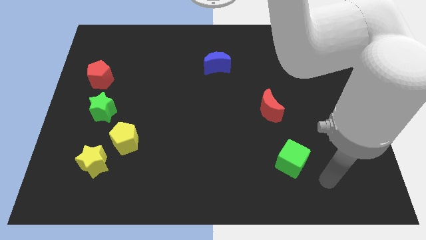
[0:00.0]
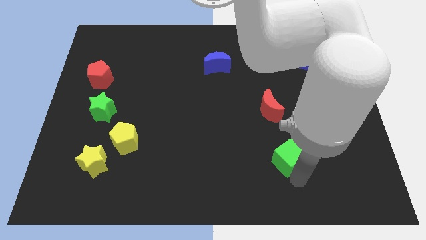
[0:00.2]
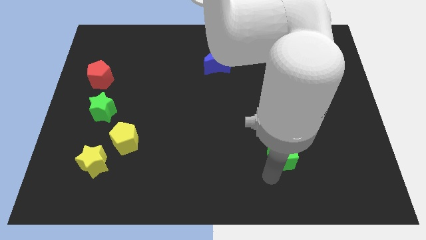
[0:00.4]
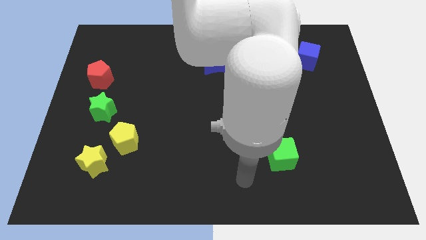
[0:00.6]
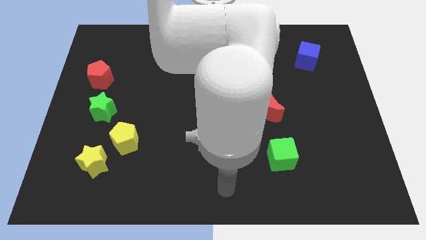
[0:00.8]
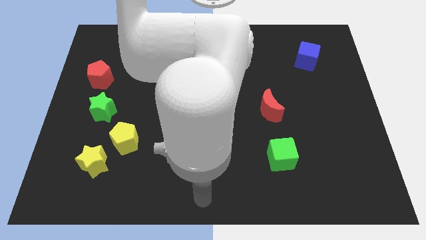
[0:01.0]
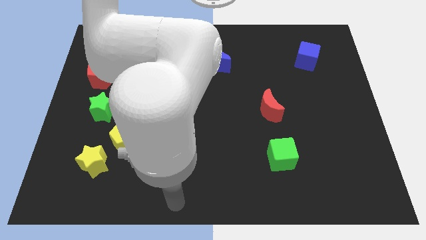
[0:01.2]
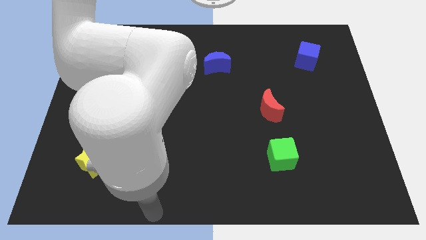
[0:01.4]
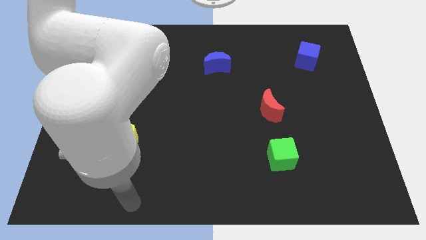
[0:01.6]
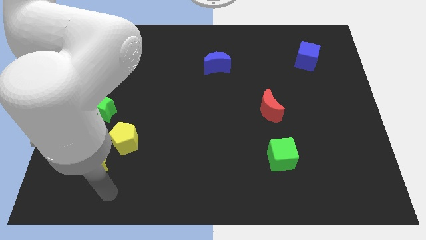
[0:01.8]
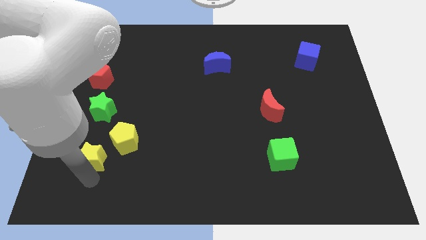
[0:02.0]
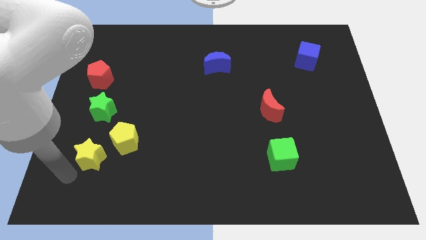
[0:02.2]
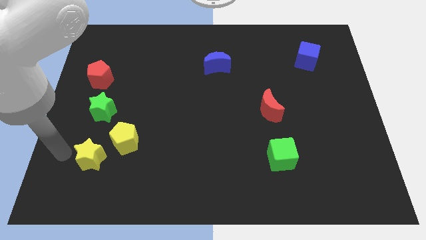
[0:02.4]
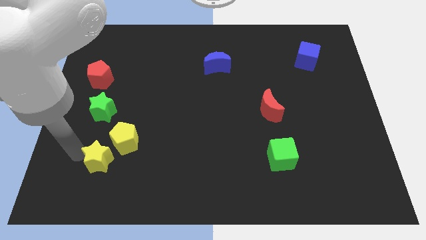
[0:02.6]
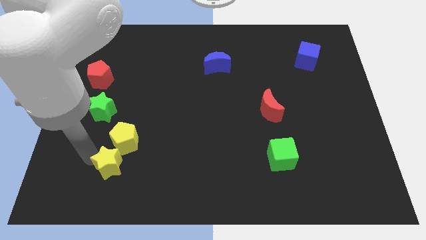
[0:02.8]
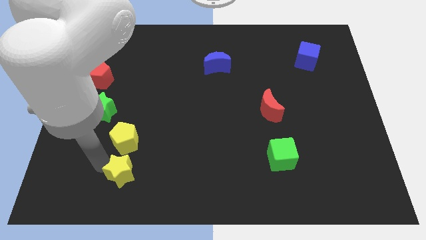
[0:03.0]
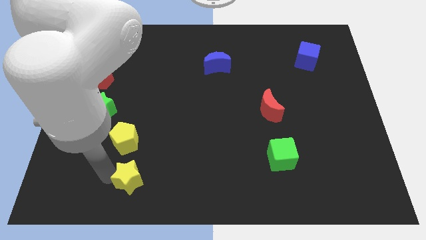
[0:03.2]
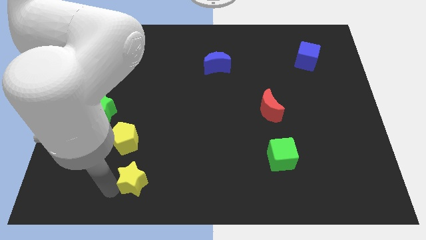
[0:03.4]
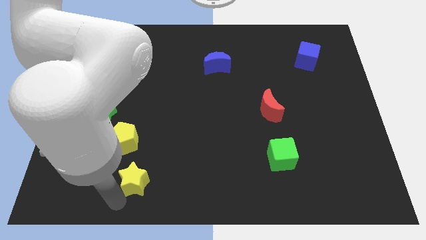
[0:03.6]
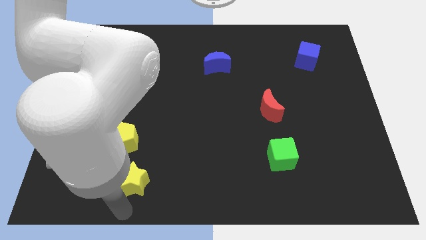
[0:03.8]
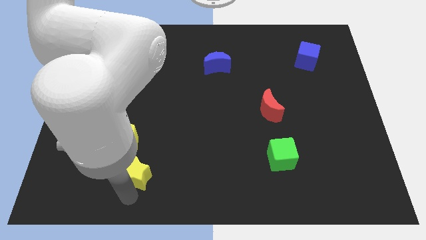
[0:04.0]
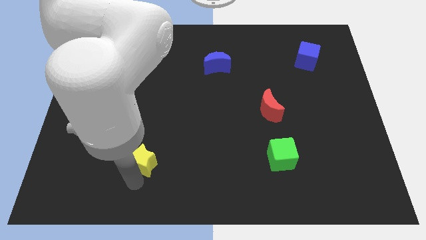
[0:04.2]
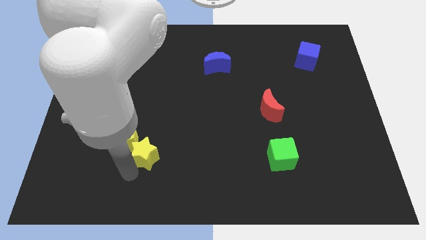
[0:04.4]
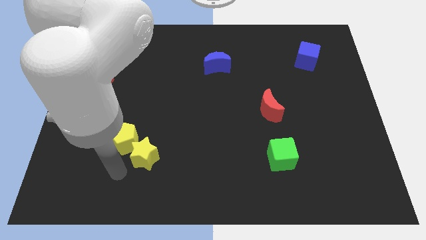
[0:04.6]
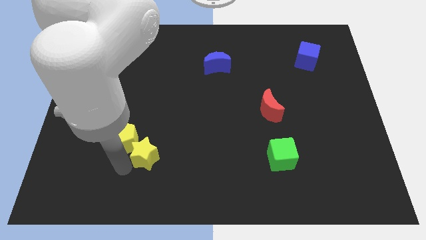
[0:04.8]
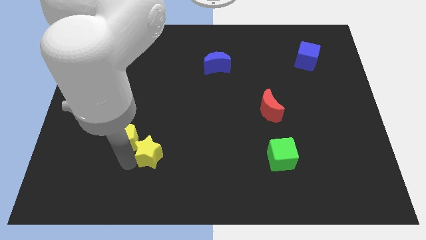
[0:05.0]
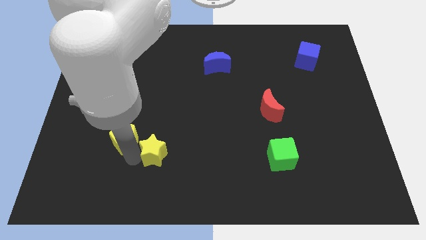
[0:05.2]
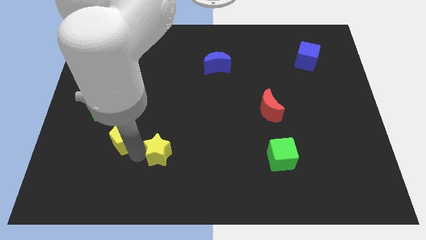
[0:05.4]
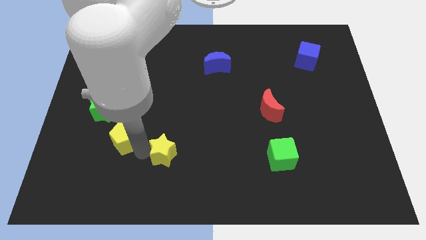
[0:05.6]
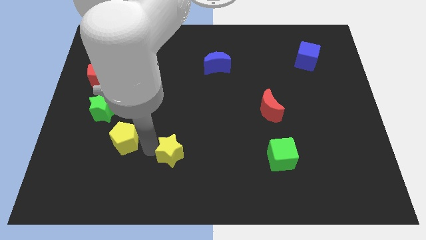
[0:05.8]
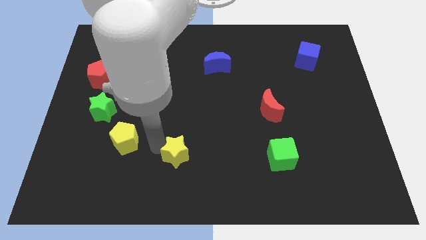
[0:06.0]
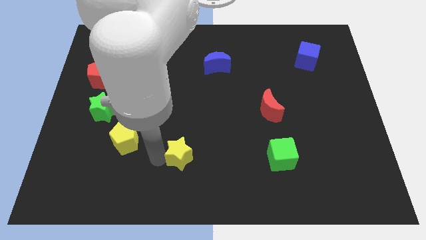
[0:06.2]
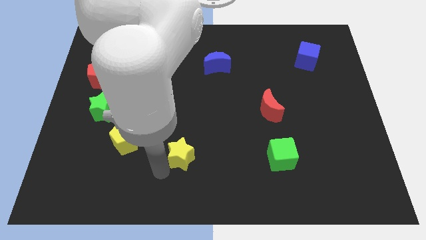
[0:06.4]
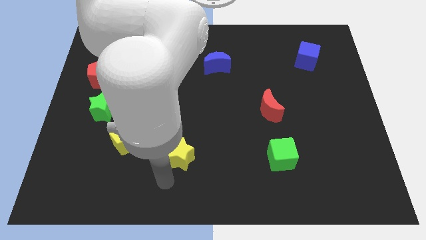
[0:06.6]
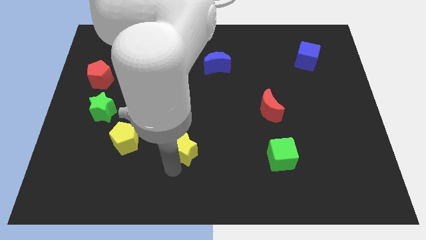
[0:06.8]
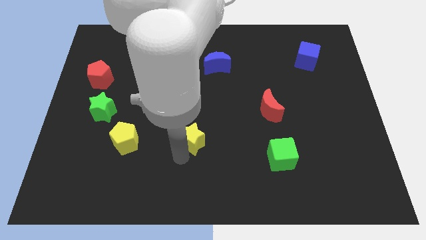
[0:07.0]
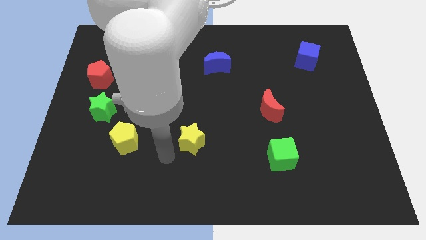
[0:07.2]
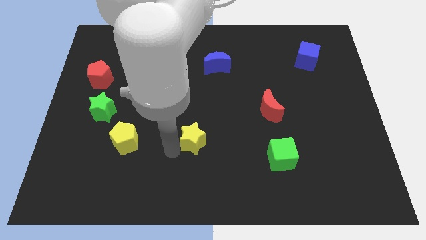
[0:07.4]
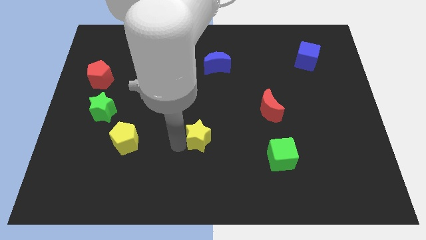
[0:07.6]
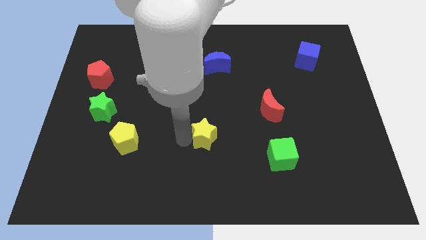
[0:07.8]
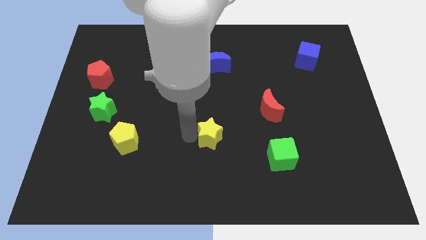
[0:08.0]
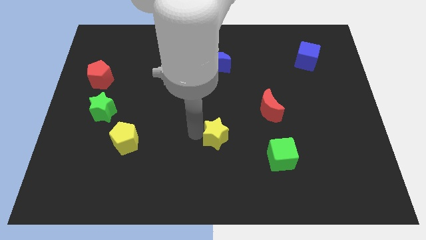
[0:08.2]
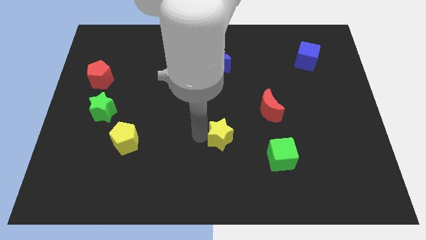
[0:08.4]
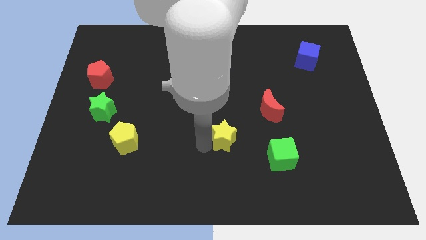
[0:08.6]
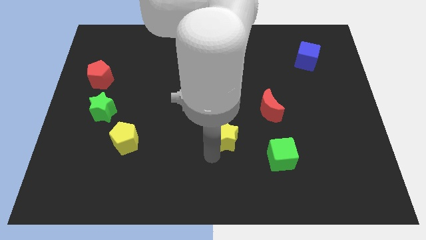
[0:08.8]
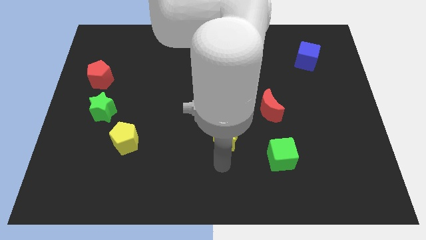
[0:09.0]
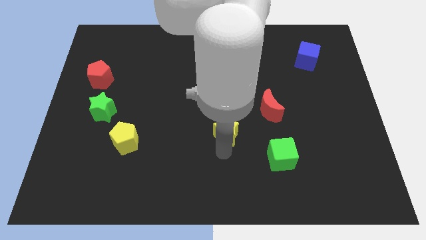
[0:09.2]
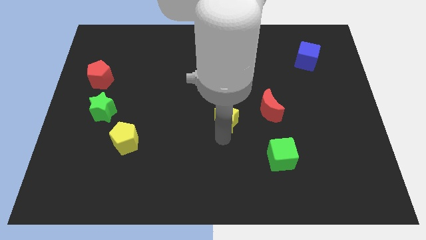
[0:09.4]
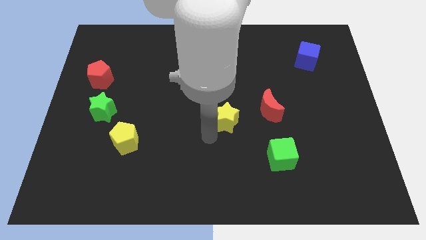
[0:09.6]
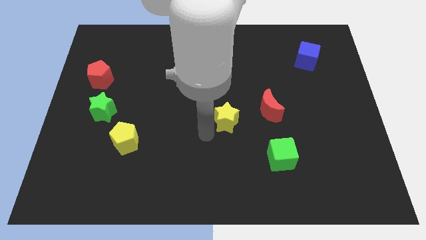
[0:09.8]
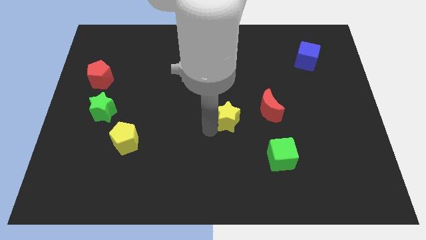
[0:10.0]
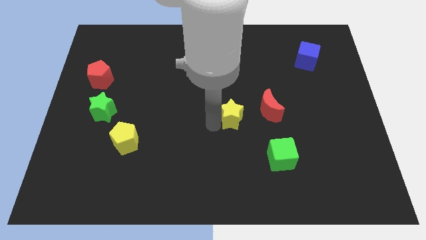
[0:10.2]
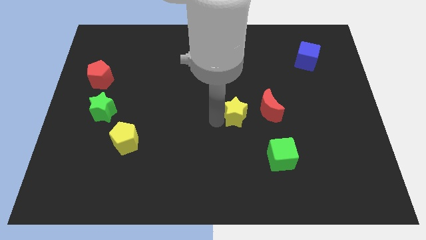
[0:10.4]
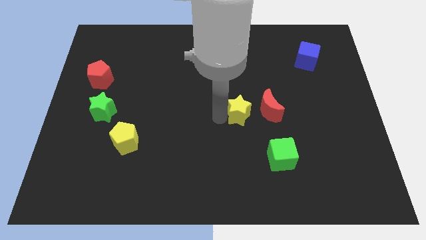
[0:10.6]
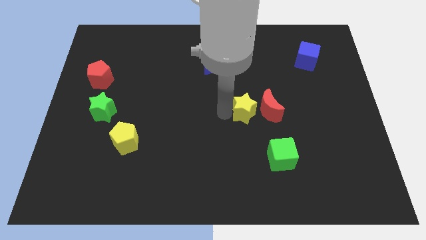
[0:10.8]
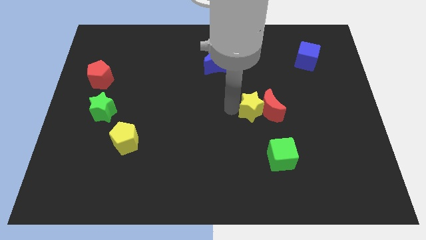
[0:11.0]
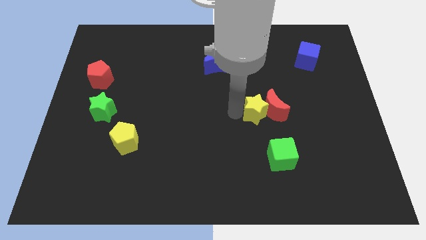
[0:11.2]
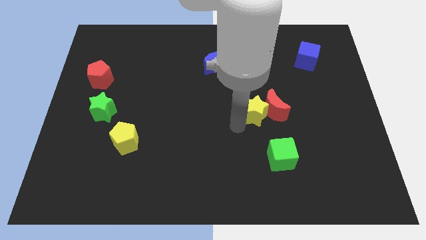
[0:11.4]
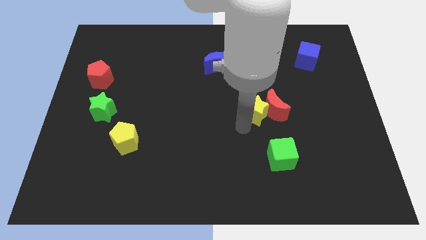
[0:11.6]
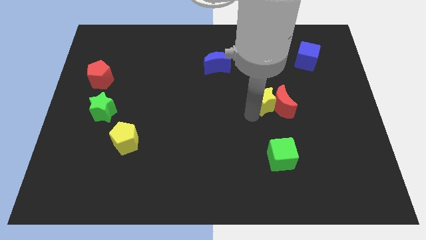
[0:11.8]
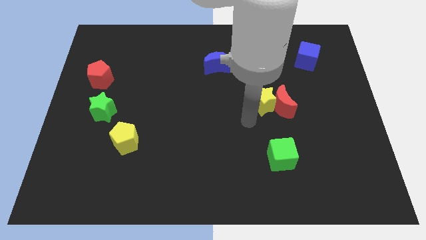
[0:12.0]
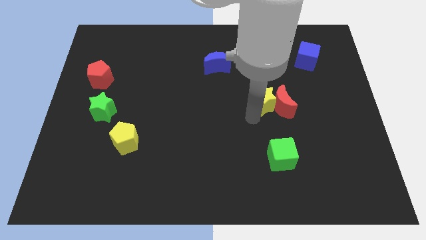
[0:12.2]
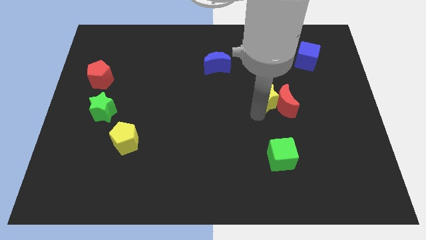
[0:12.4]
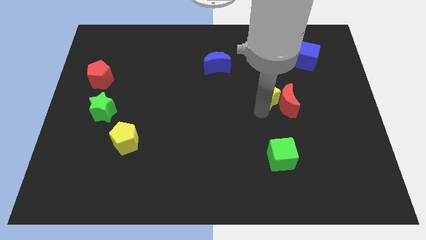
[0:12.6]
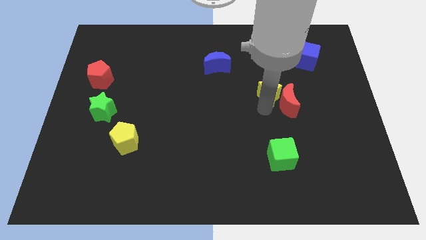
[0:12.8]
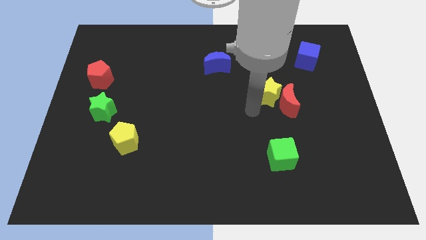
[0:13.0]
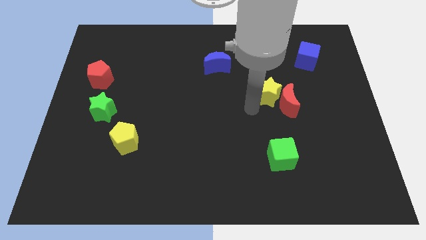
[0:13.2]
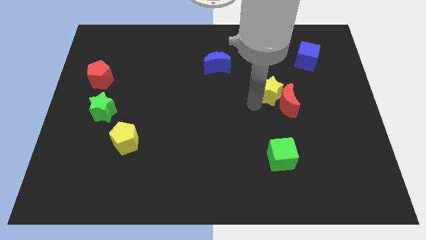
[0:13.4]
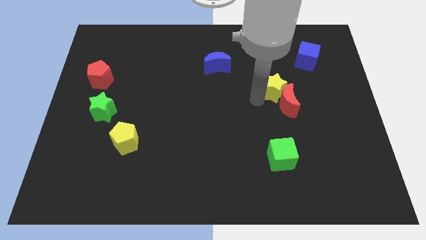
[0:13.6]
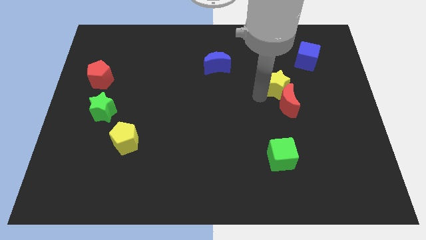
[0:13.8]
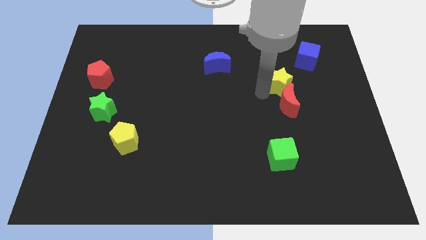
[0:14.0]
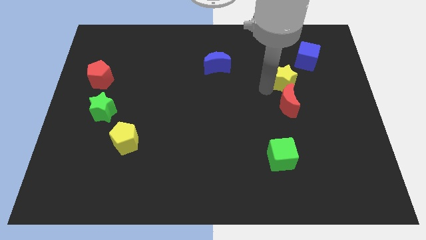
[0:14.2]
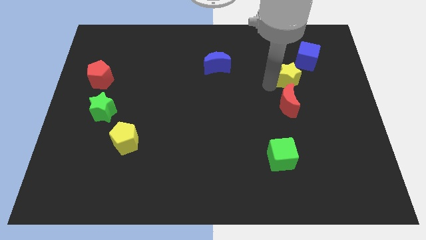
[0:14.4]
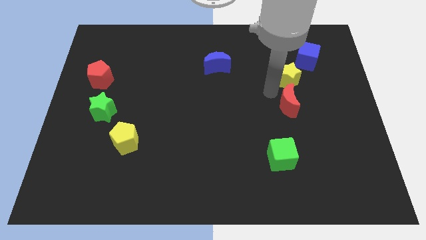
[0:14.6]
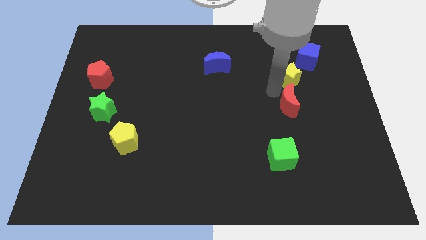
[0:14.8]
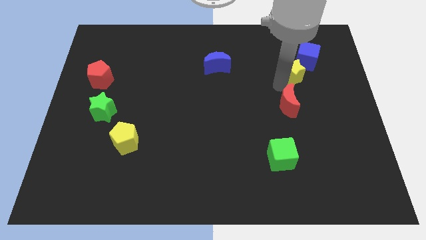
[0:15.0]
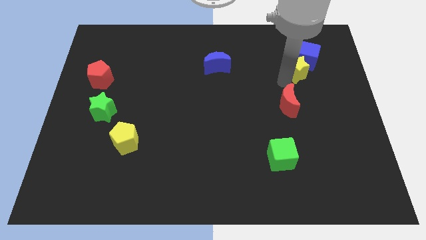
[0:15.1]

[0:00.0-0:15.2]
slide the yellow star towards the blue cube
